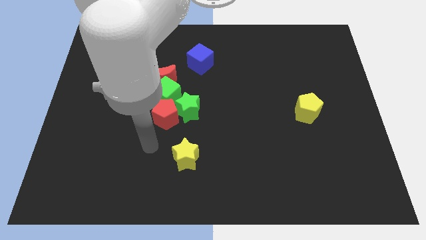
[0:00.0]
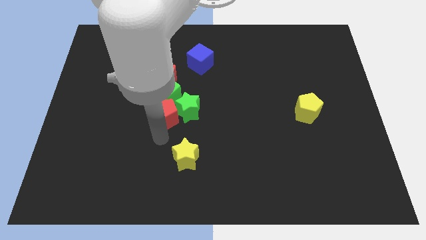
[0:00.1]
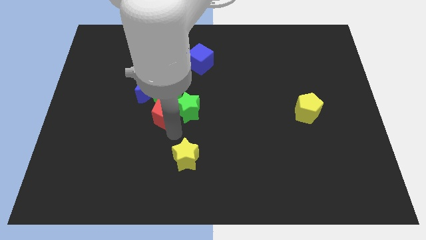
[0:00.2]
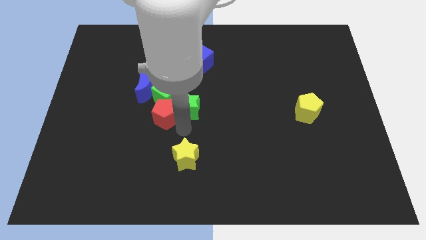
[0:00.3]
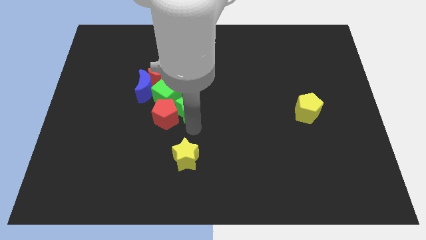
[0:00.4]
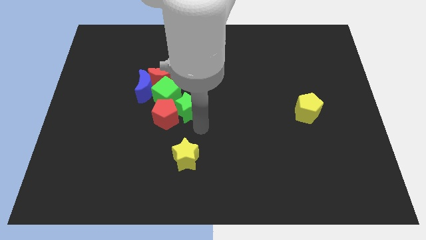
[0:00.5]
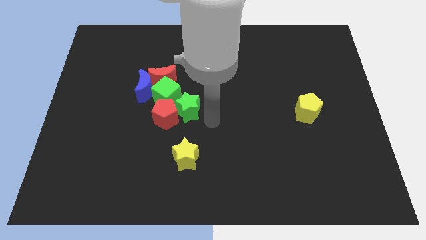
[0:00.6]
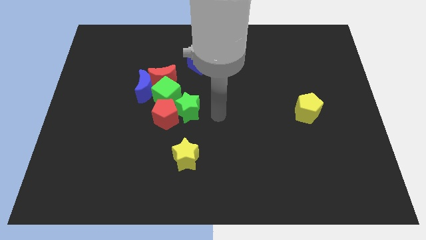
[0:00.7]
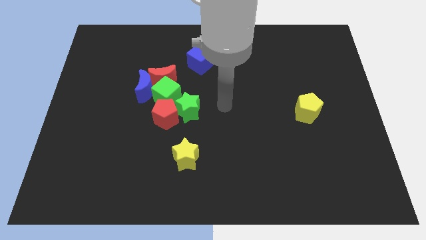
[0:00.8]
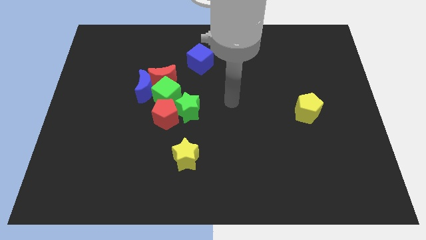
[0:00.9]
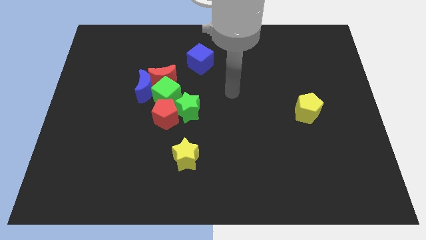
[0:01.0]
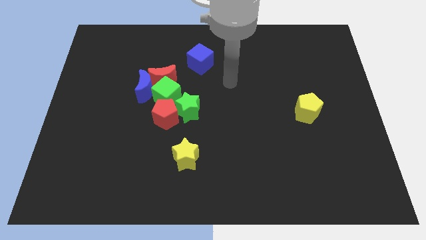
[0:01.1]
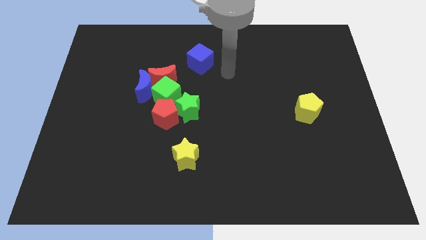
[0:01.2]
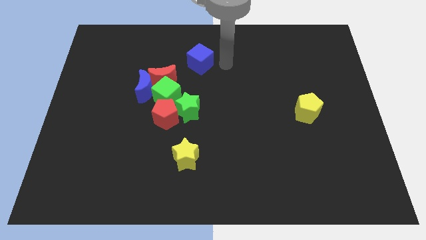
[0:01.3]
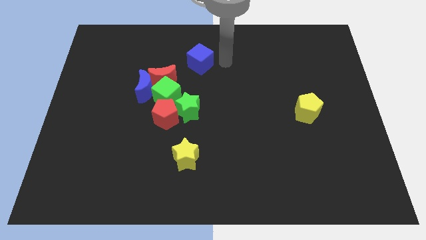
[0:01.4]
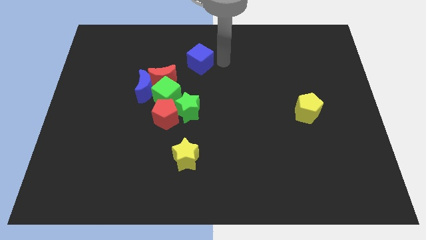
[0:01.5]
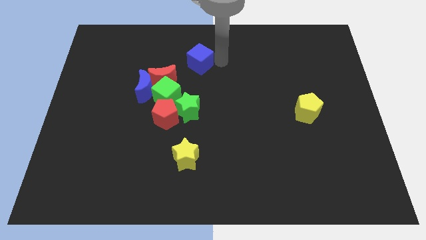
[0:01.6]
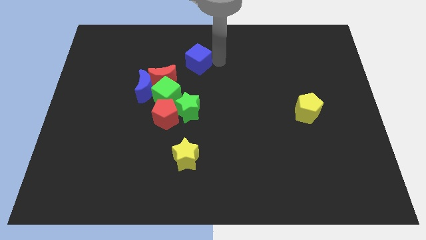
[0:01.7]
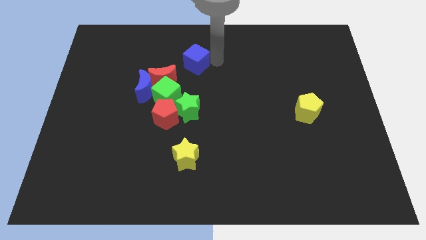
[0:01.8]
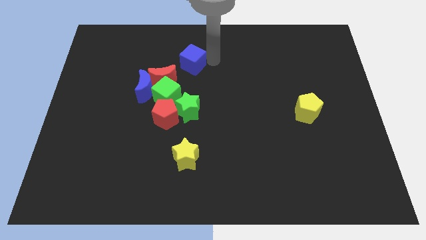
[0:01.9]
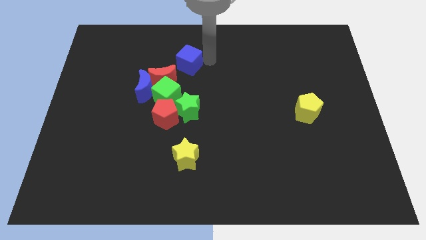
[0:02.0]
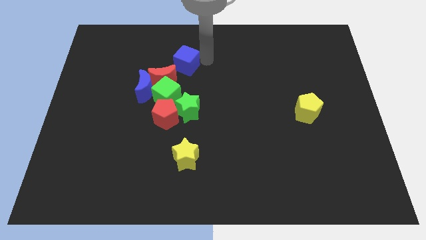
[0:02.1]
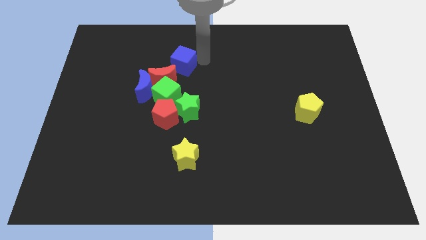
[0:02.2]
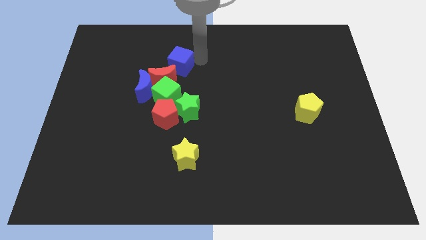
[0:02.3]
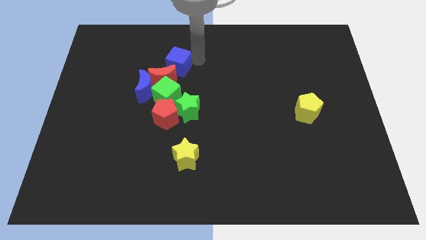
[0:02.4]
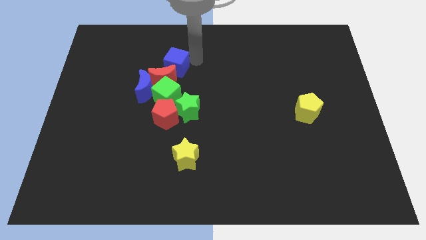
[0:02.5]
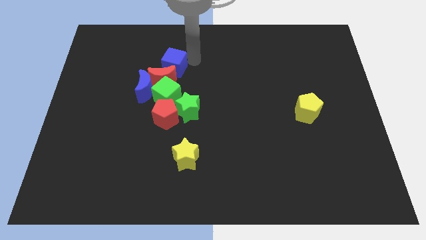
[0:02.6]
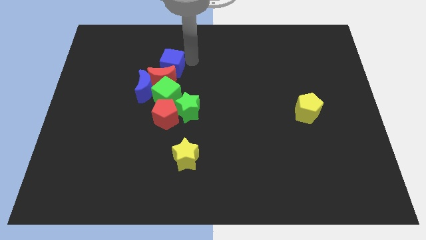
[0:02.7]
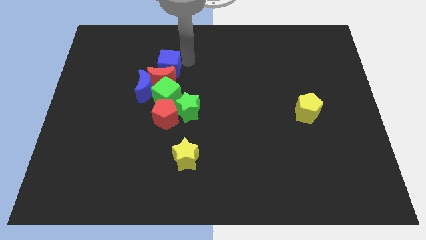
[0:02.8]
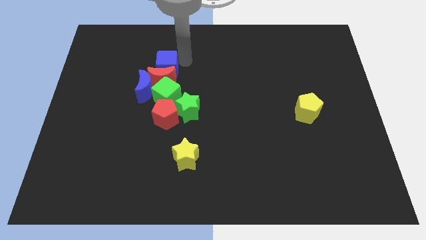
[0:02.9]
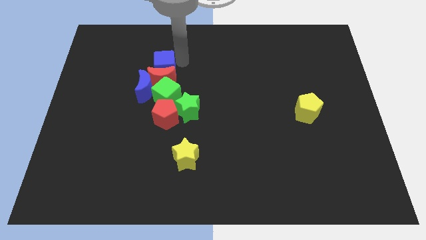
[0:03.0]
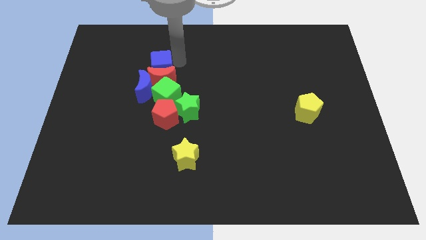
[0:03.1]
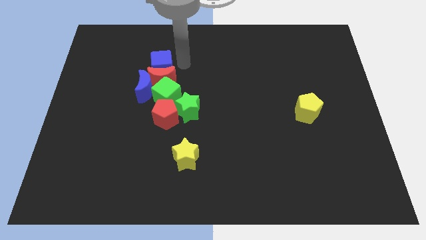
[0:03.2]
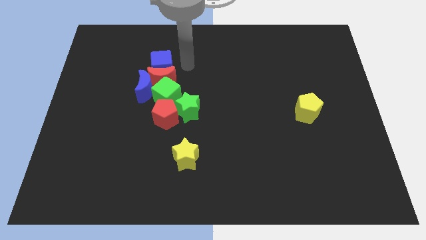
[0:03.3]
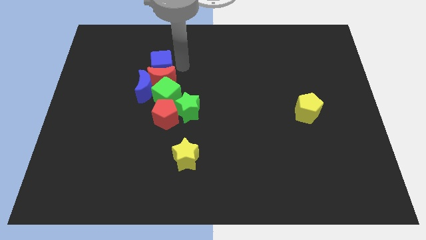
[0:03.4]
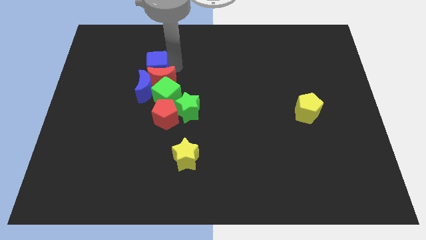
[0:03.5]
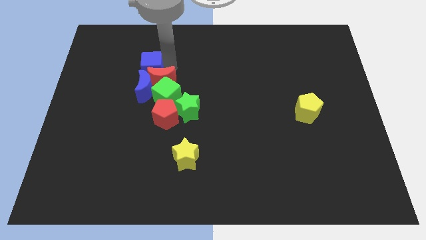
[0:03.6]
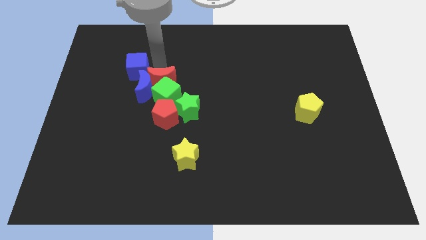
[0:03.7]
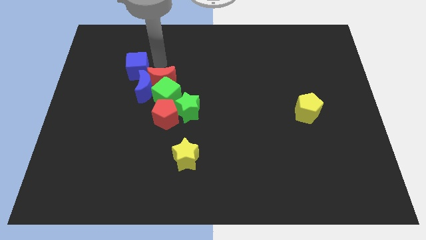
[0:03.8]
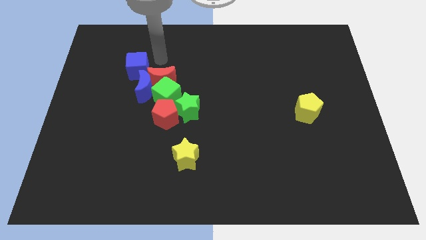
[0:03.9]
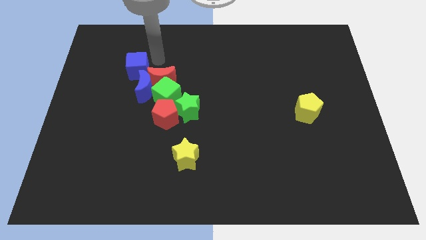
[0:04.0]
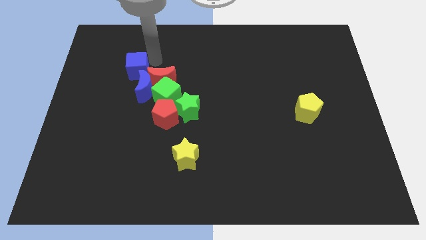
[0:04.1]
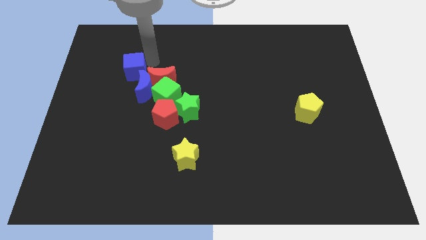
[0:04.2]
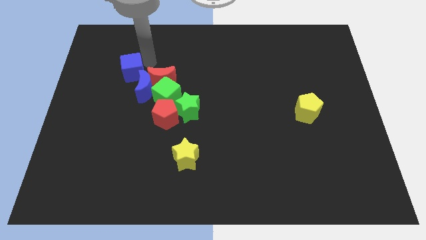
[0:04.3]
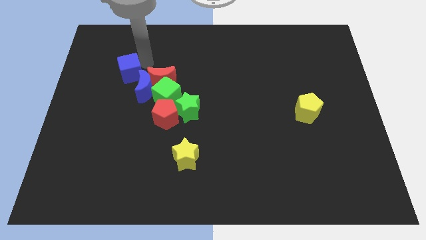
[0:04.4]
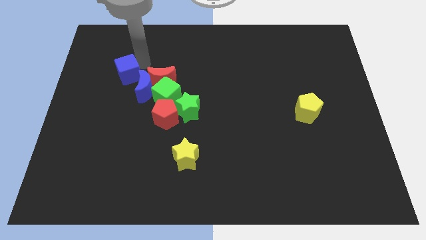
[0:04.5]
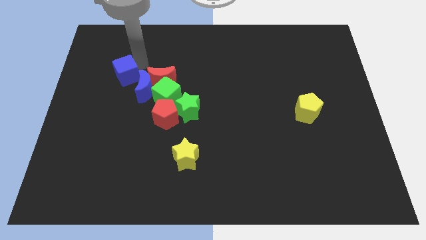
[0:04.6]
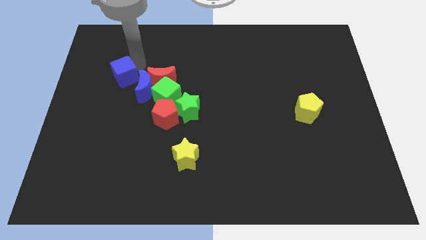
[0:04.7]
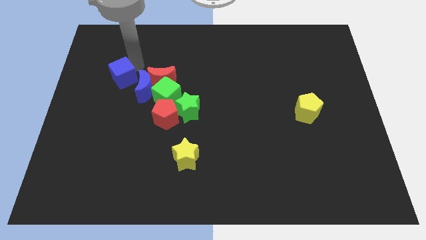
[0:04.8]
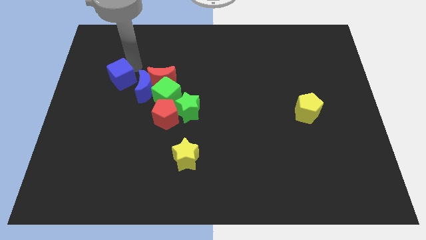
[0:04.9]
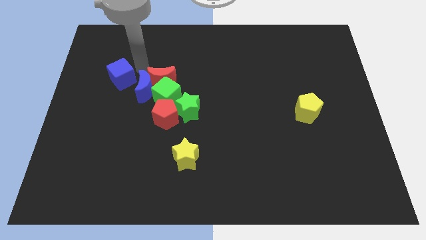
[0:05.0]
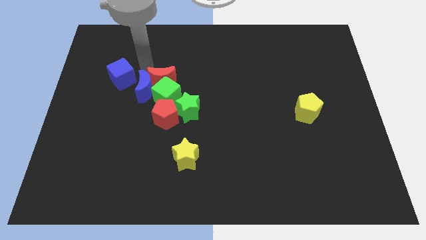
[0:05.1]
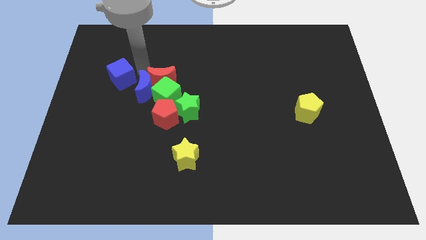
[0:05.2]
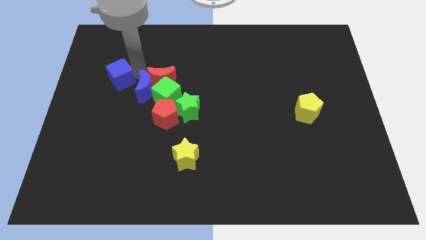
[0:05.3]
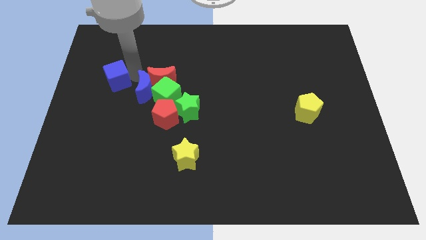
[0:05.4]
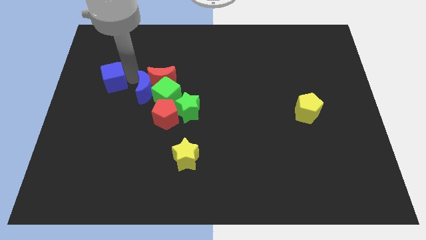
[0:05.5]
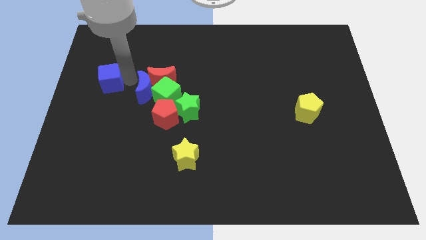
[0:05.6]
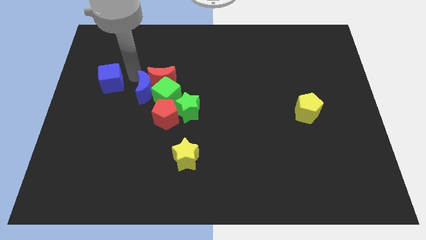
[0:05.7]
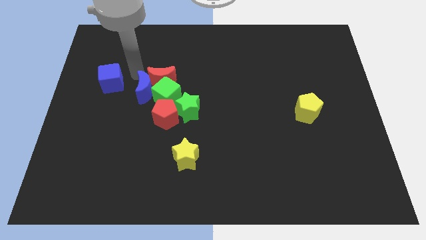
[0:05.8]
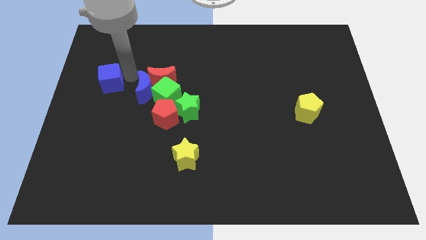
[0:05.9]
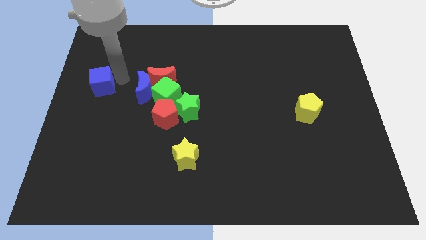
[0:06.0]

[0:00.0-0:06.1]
slide the blue cube to the center left
